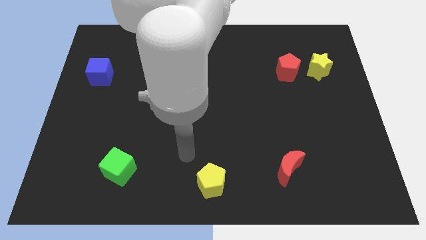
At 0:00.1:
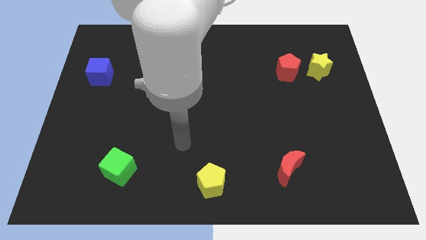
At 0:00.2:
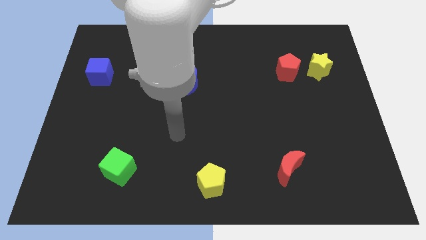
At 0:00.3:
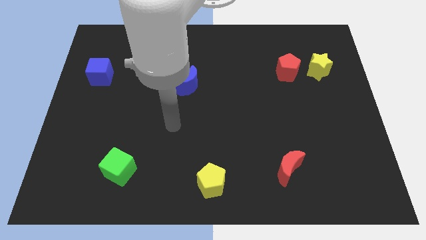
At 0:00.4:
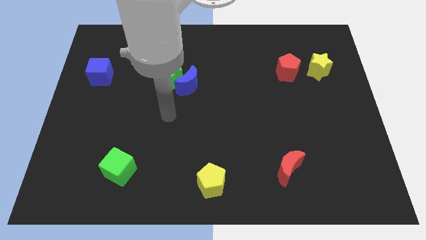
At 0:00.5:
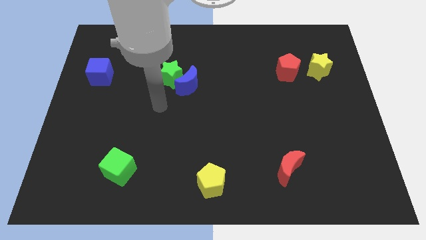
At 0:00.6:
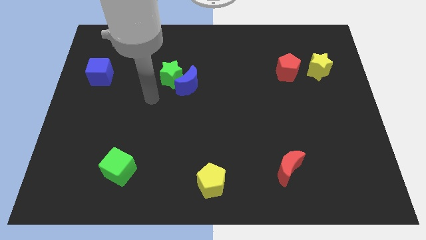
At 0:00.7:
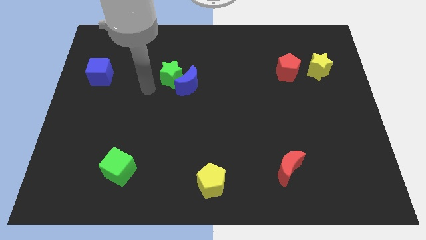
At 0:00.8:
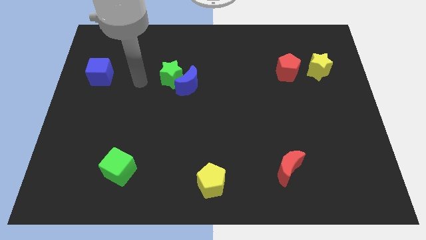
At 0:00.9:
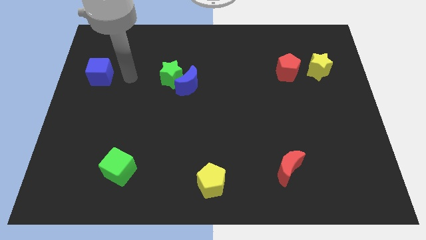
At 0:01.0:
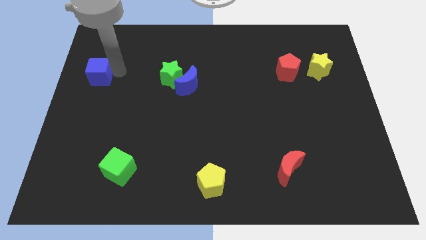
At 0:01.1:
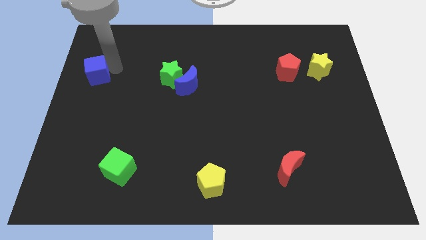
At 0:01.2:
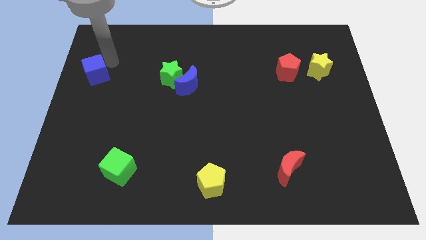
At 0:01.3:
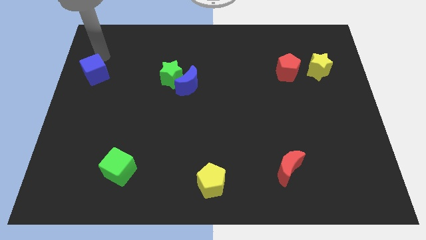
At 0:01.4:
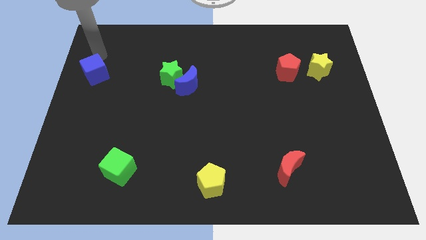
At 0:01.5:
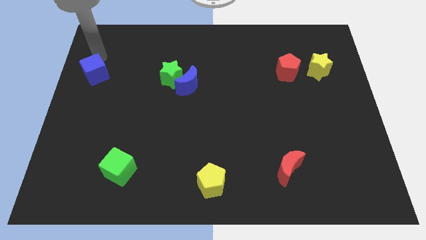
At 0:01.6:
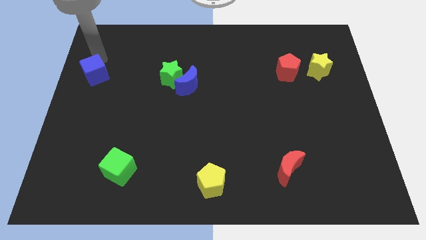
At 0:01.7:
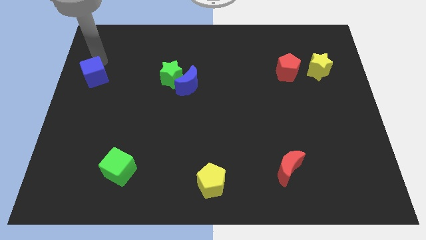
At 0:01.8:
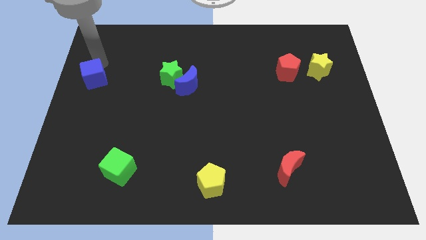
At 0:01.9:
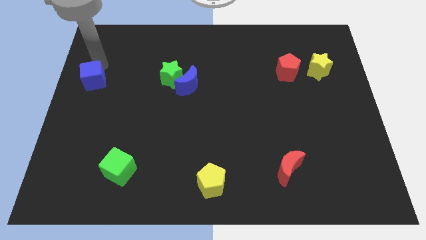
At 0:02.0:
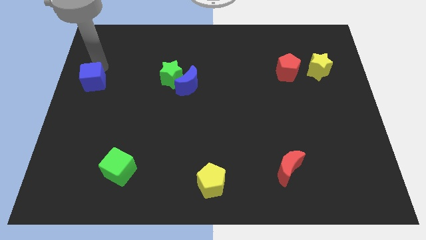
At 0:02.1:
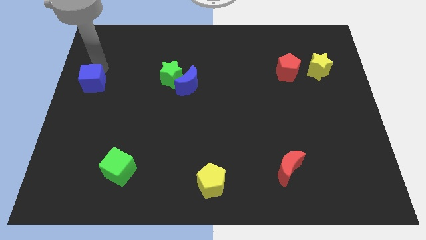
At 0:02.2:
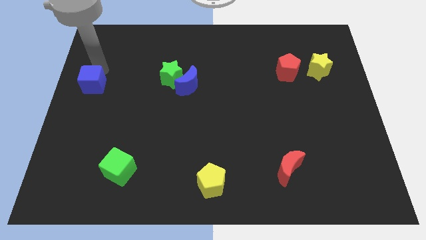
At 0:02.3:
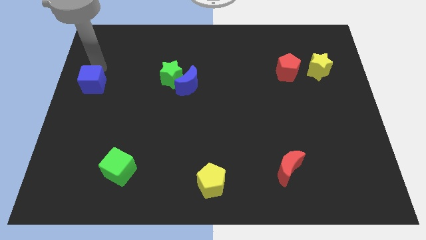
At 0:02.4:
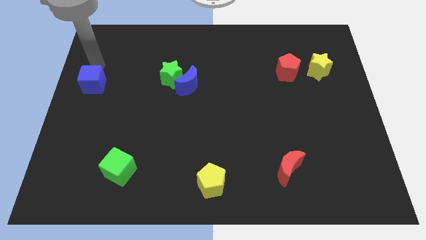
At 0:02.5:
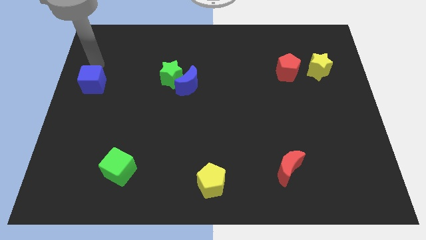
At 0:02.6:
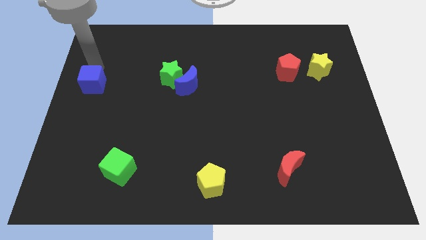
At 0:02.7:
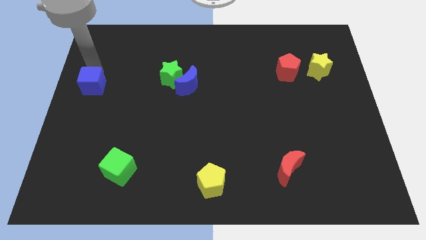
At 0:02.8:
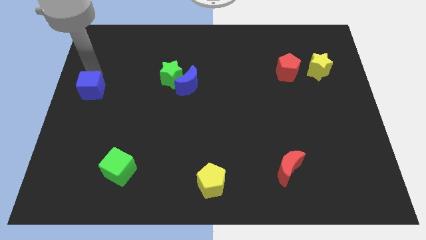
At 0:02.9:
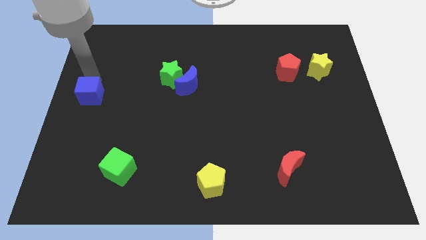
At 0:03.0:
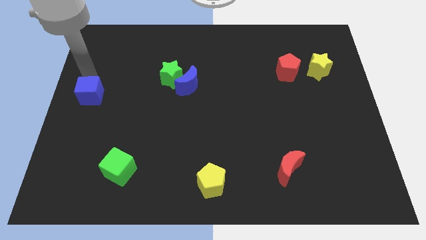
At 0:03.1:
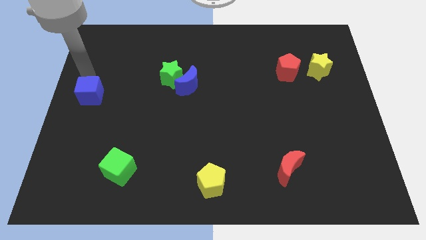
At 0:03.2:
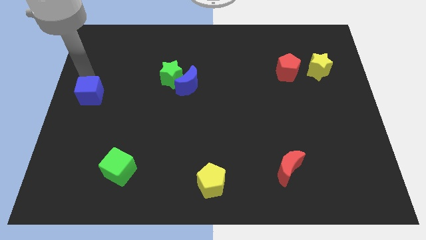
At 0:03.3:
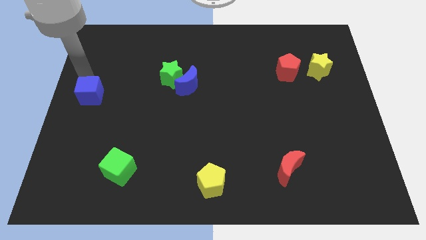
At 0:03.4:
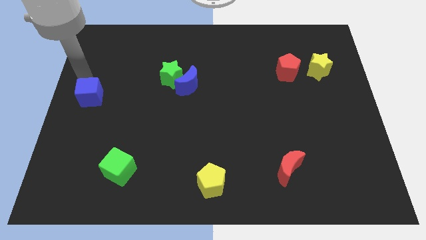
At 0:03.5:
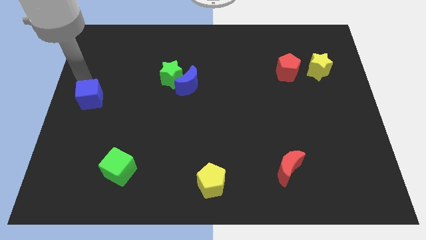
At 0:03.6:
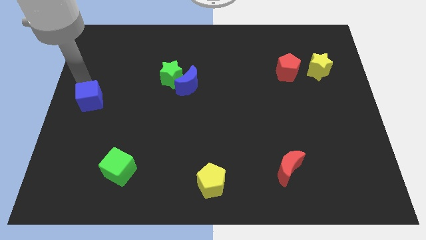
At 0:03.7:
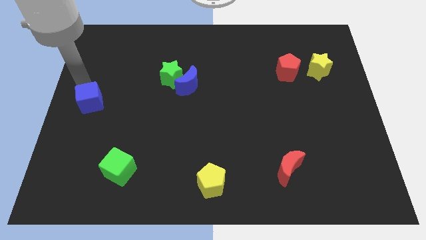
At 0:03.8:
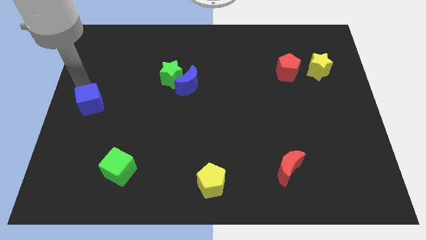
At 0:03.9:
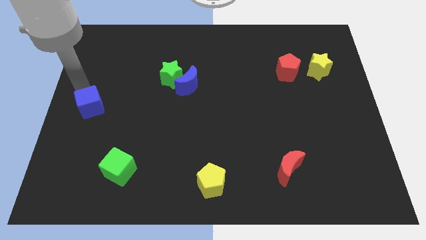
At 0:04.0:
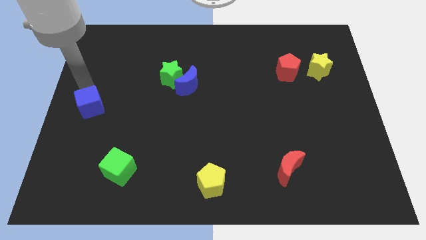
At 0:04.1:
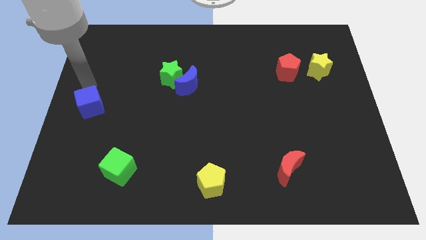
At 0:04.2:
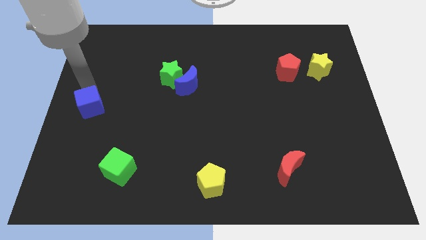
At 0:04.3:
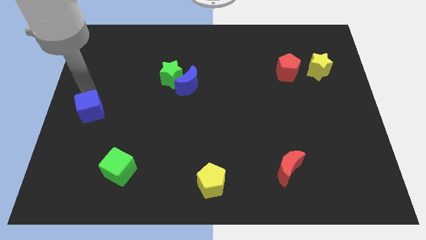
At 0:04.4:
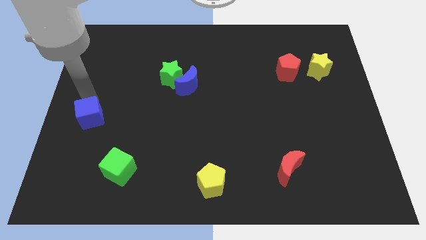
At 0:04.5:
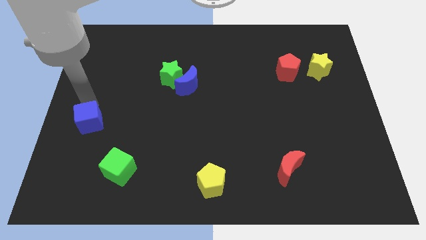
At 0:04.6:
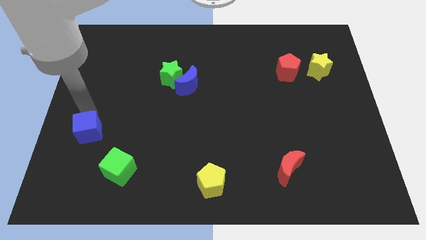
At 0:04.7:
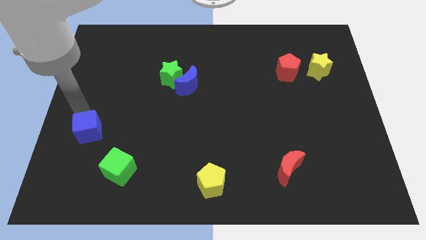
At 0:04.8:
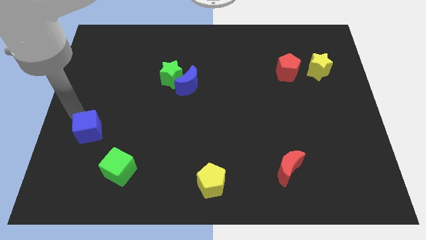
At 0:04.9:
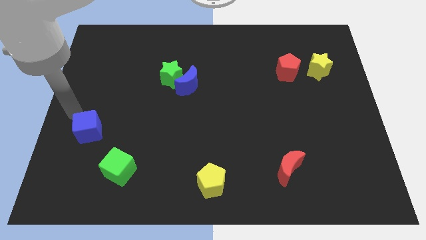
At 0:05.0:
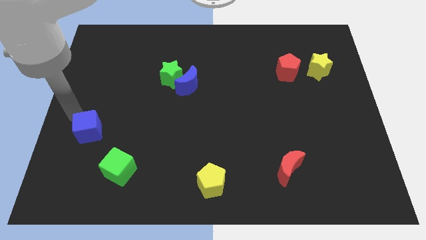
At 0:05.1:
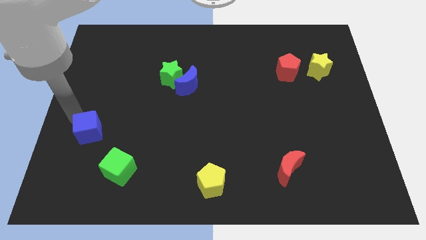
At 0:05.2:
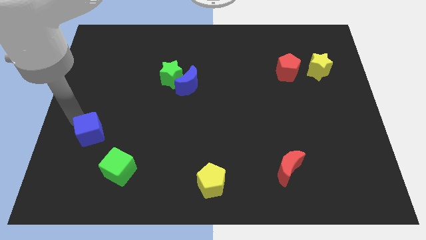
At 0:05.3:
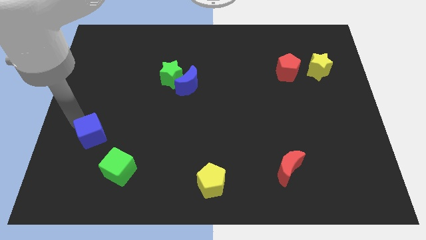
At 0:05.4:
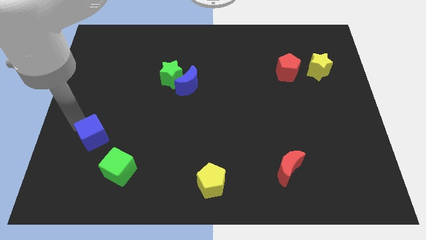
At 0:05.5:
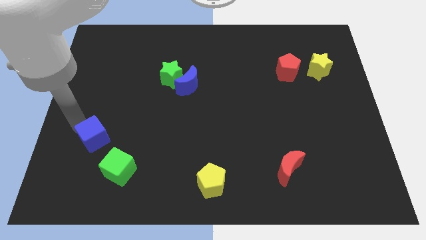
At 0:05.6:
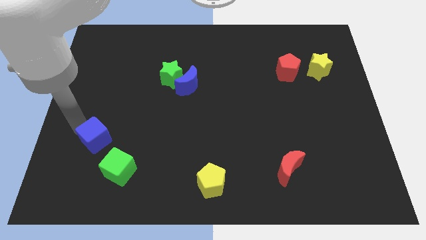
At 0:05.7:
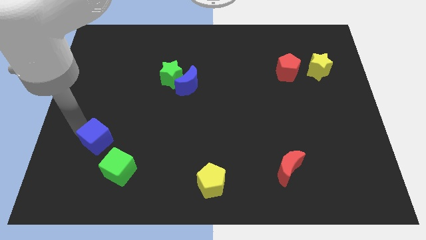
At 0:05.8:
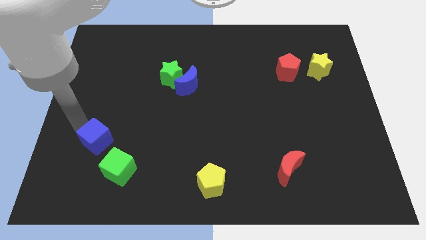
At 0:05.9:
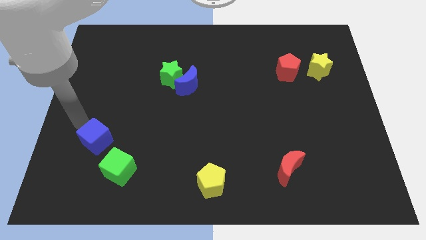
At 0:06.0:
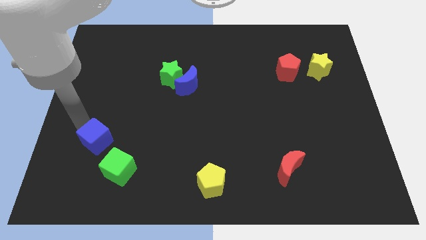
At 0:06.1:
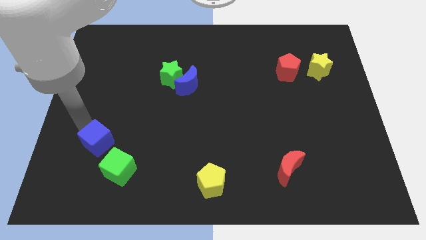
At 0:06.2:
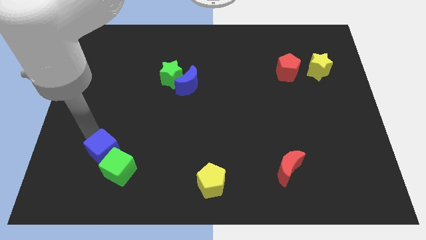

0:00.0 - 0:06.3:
push the blue cube to the green cube
